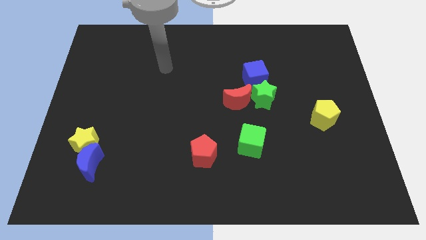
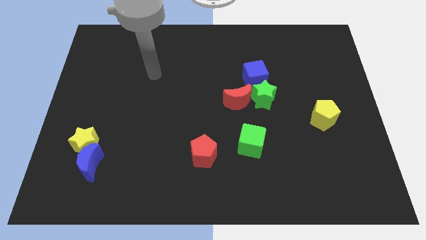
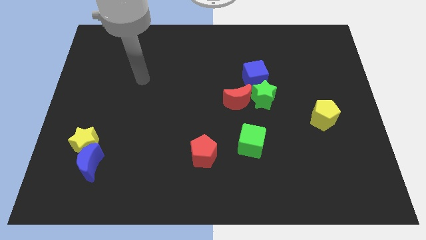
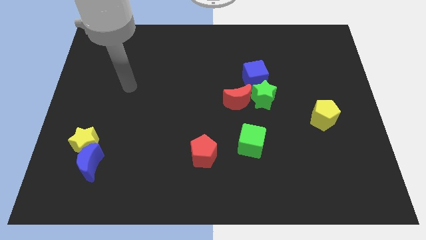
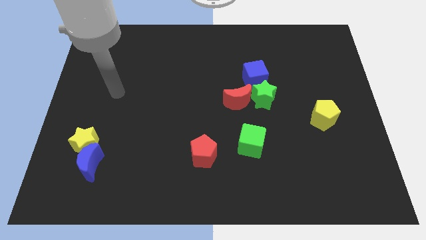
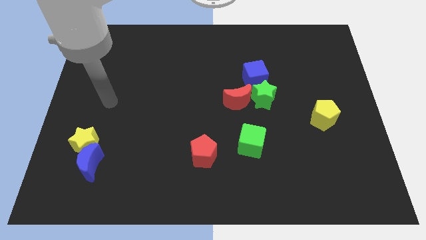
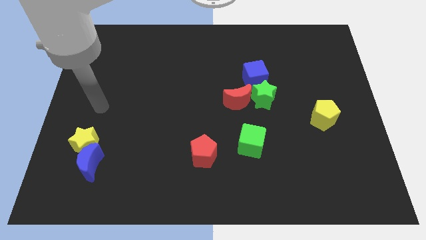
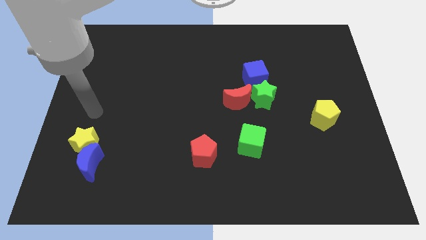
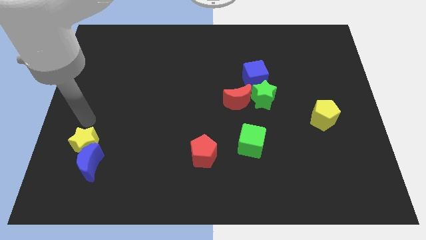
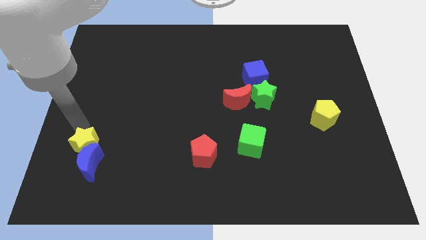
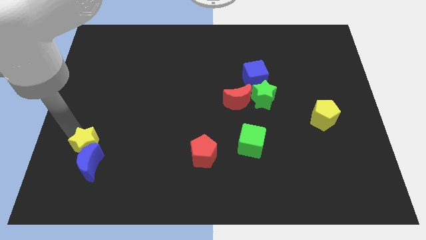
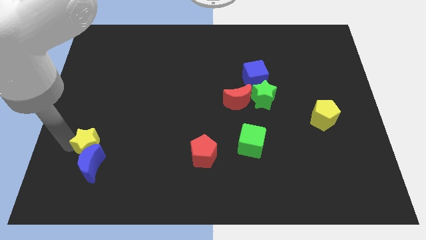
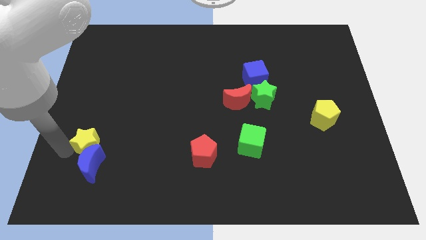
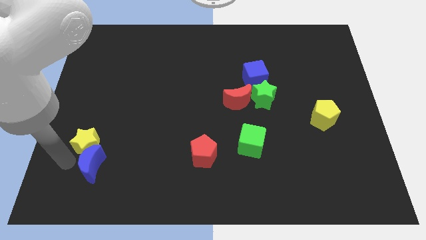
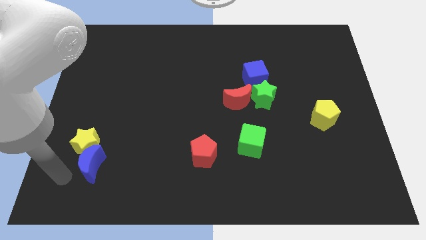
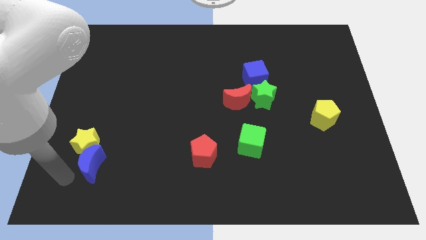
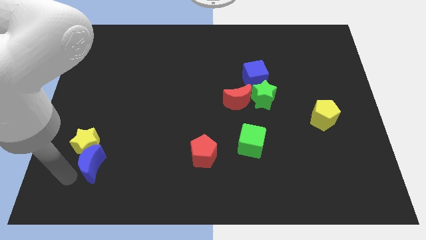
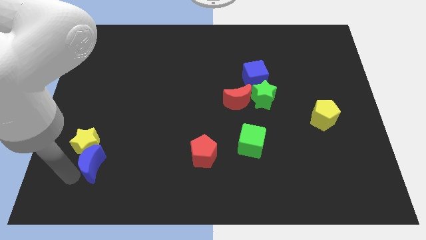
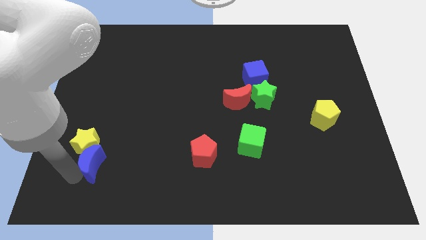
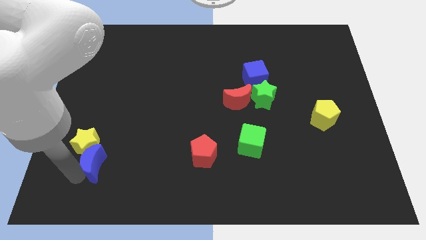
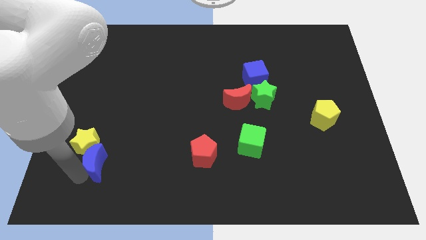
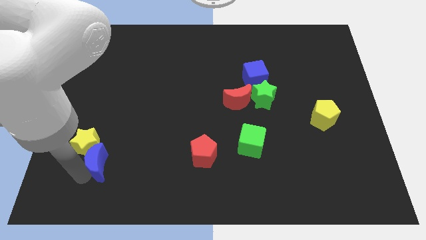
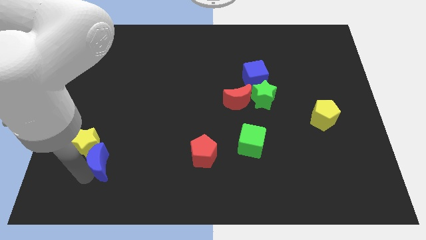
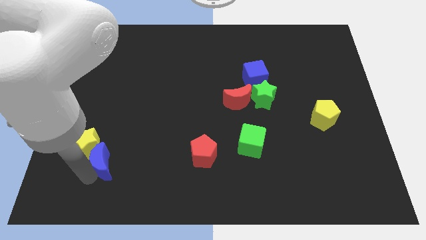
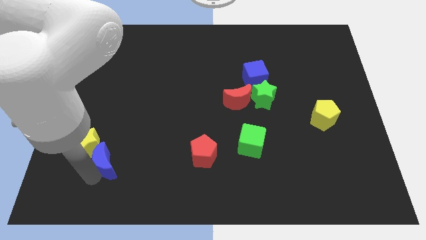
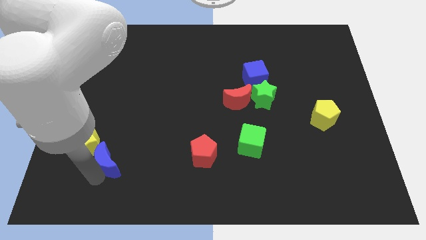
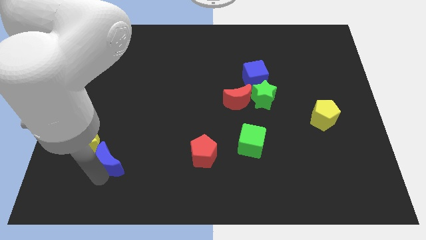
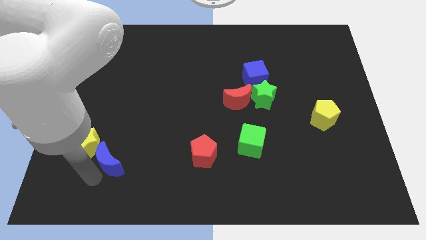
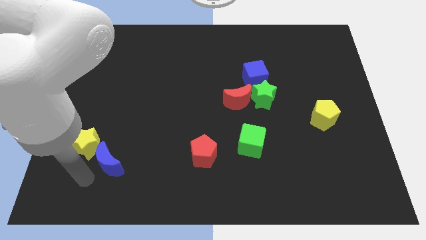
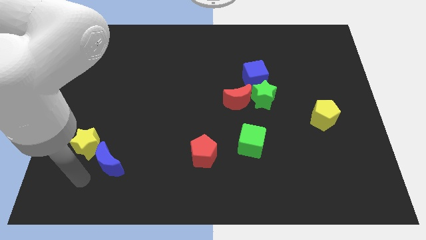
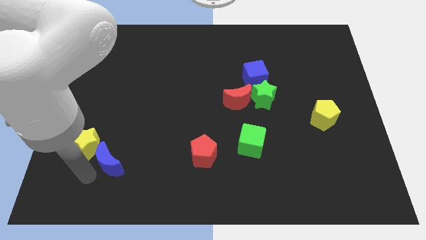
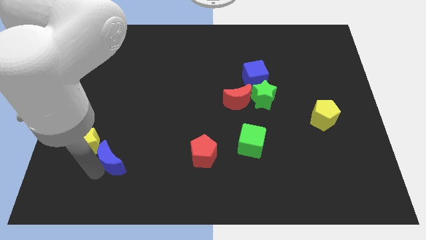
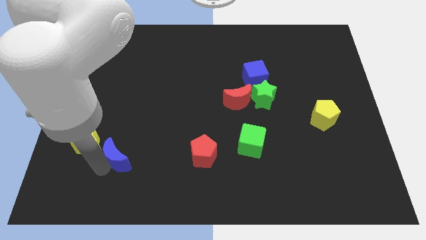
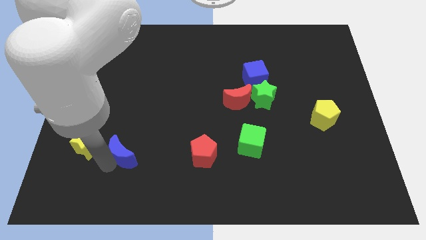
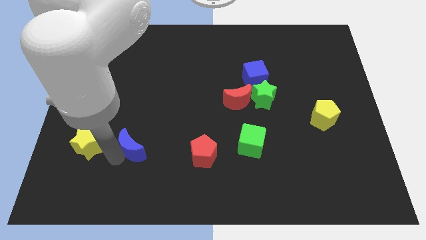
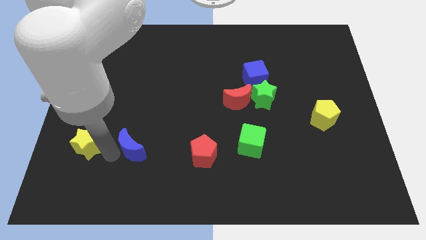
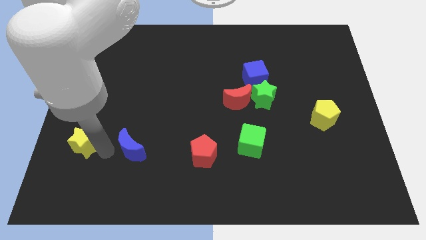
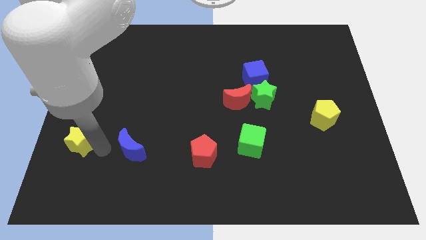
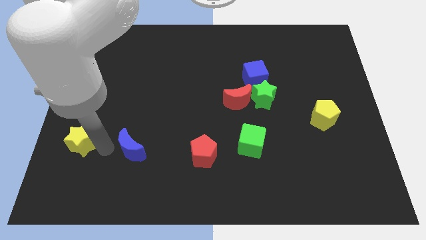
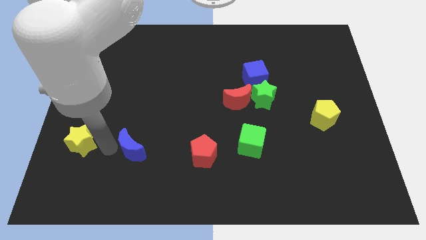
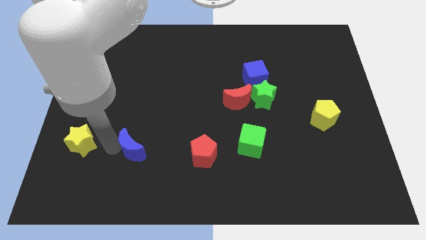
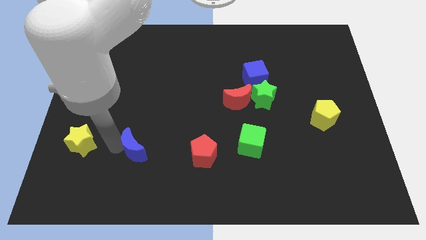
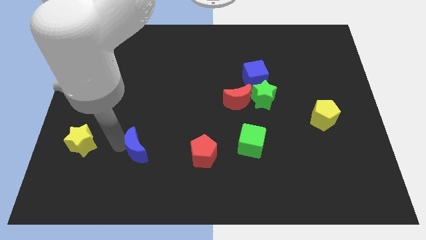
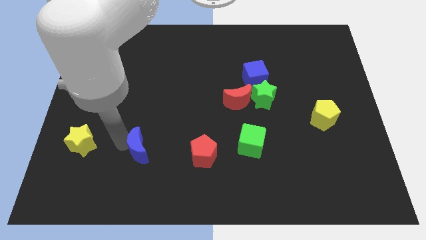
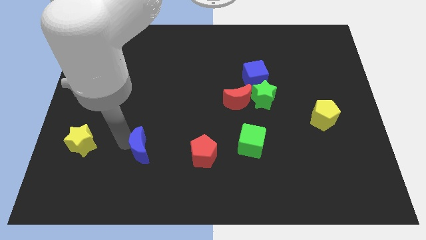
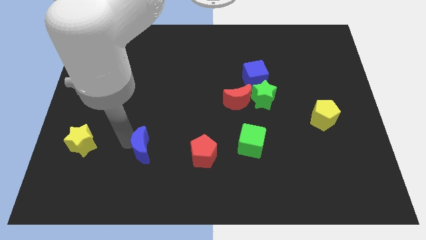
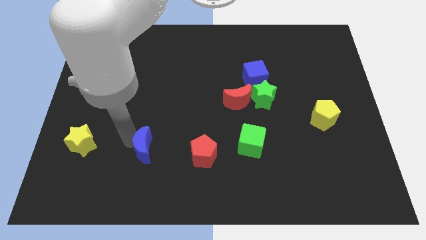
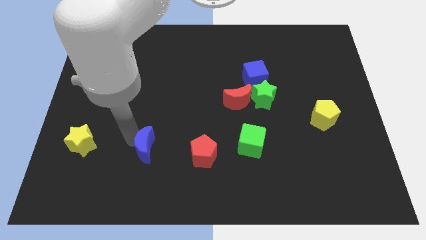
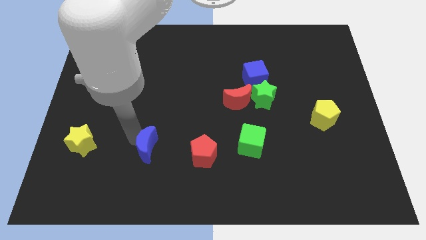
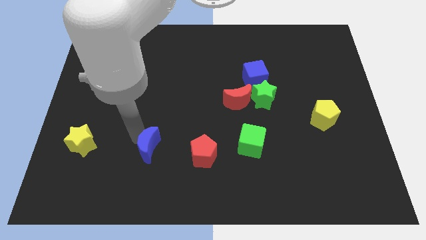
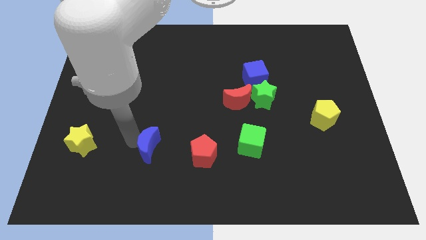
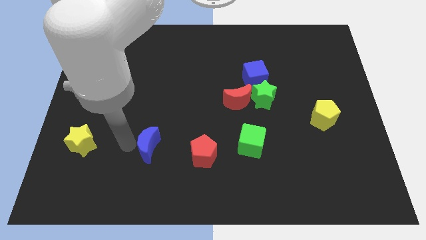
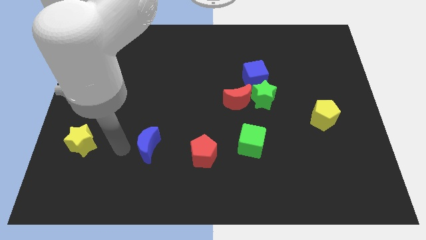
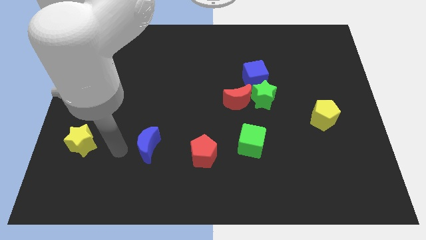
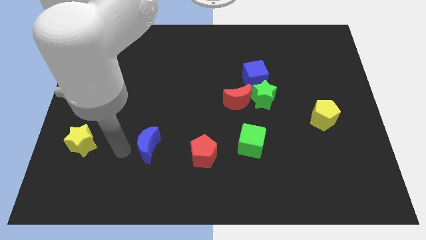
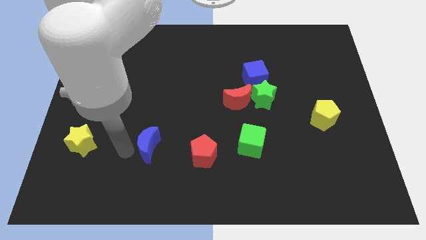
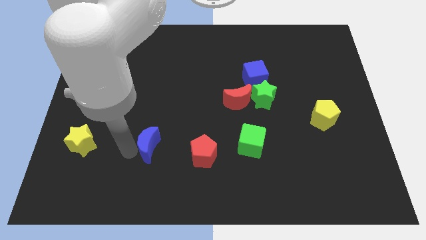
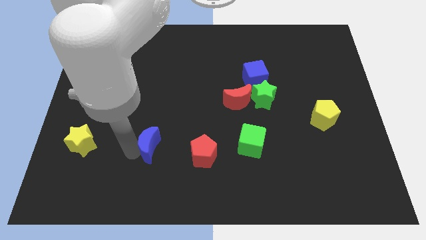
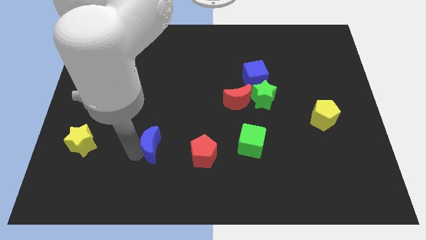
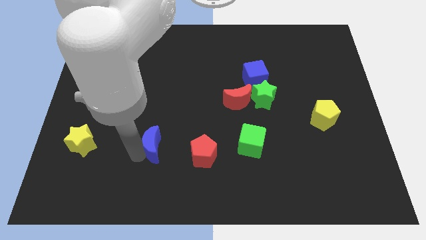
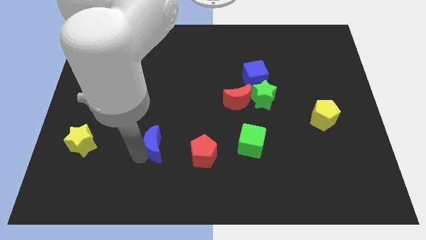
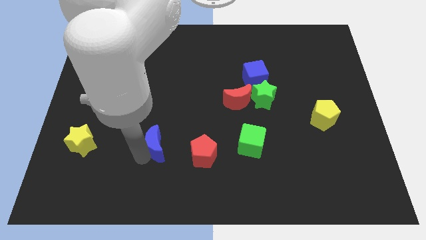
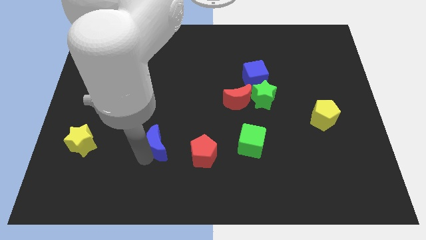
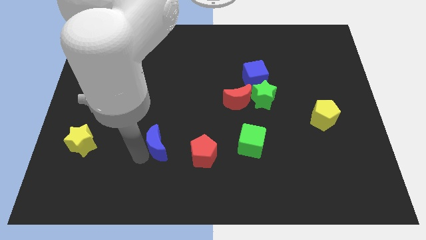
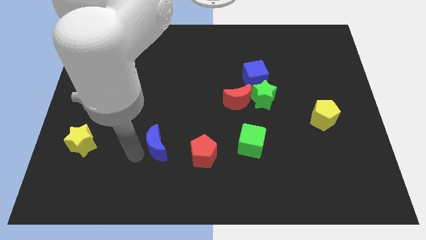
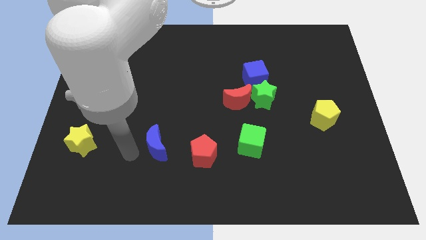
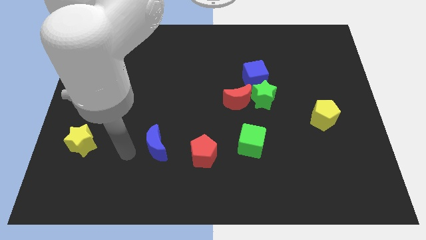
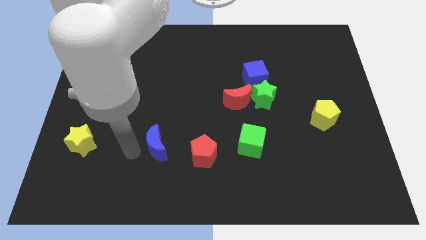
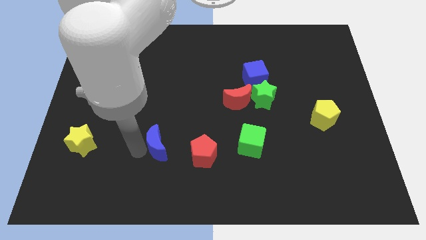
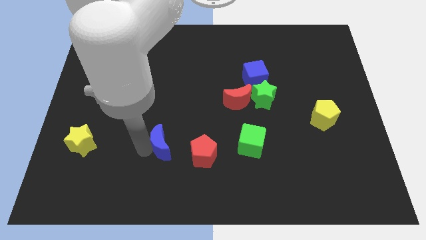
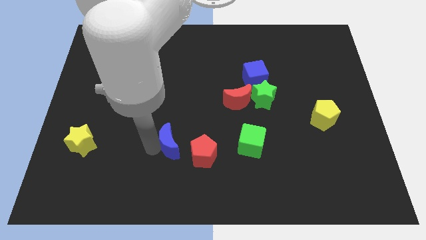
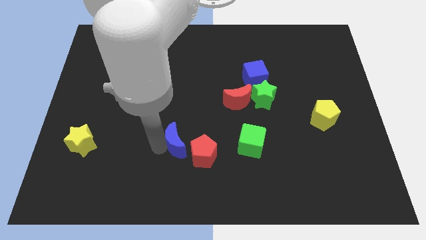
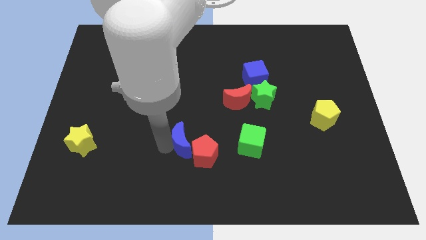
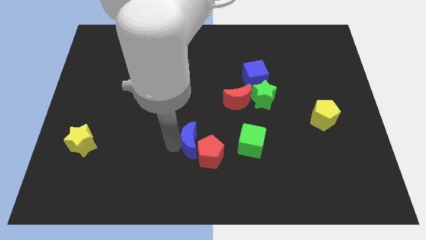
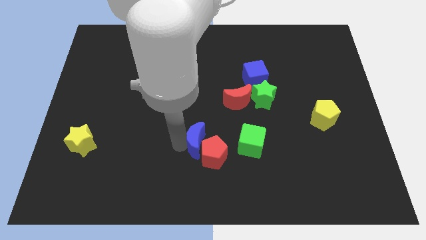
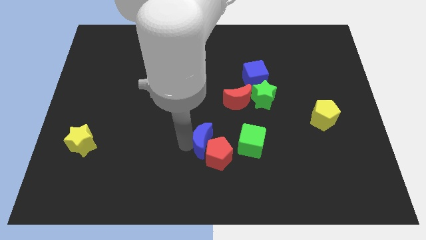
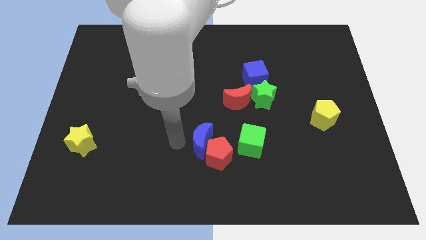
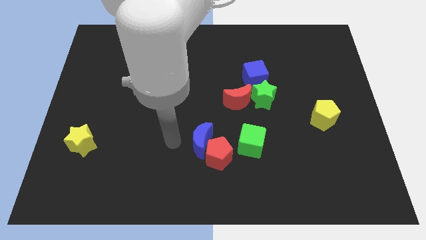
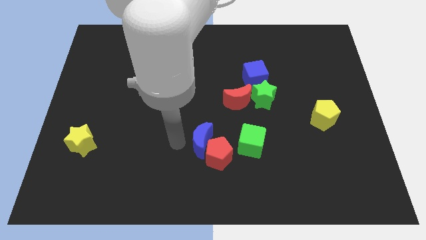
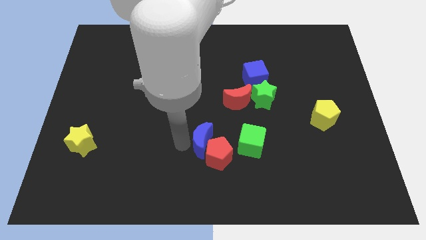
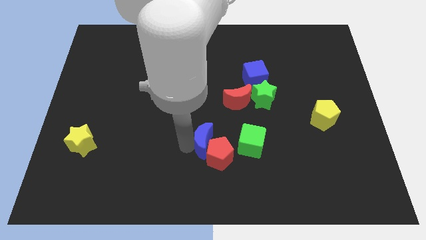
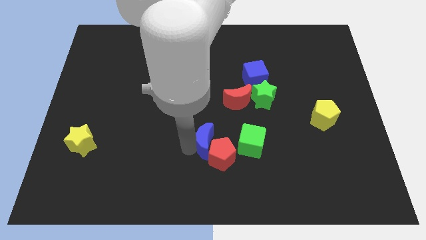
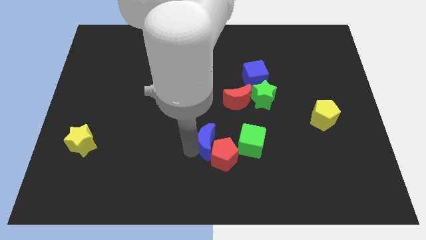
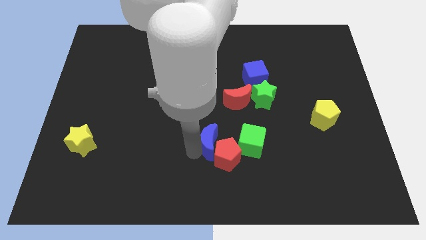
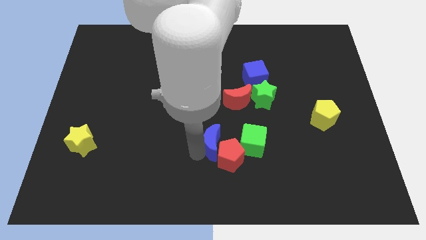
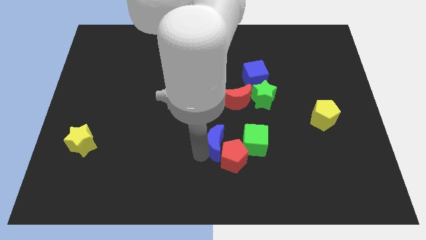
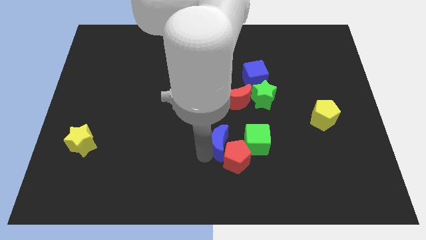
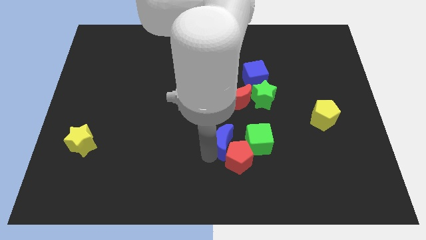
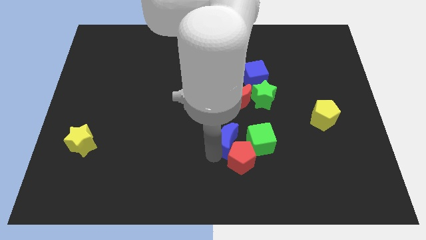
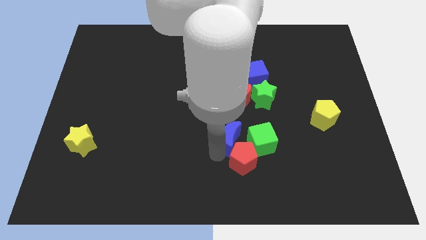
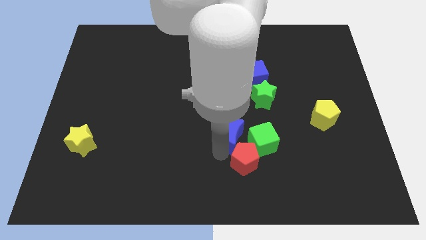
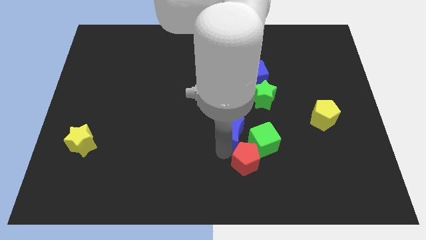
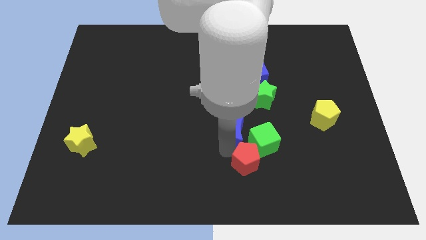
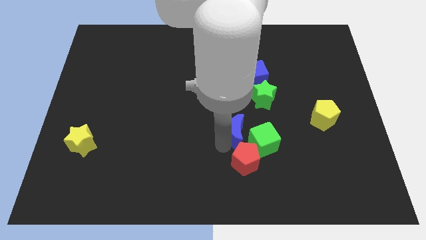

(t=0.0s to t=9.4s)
put the blue moon towards the green cube
